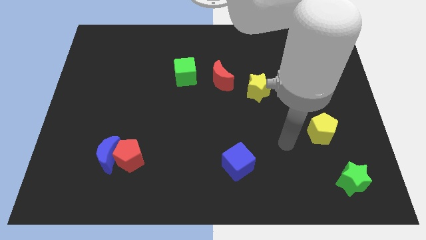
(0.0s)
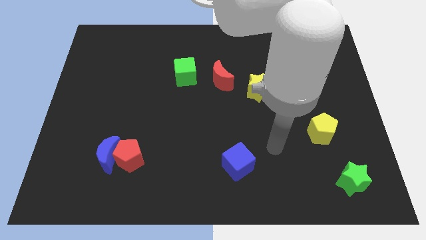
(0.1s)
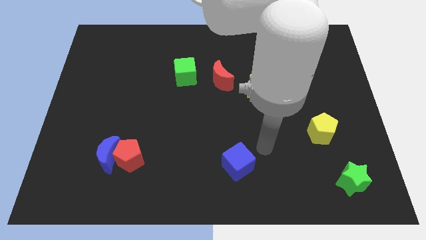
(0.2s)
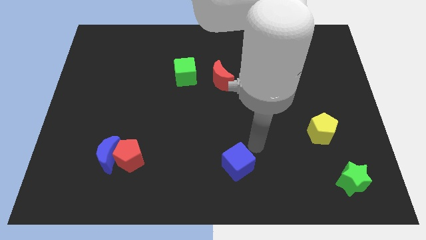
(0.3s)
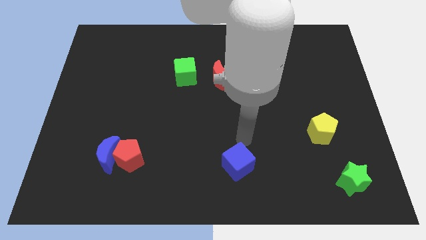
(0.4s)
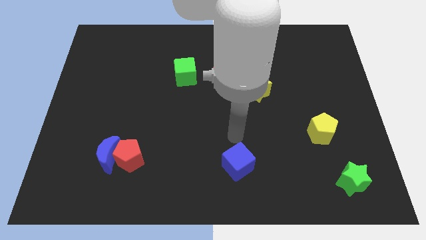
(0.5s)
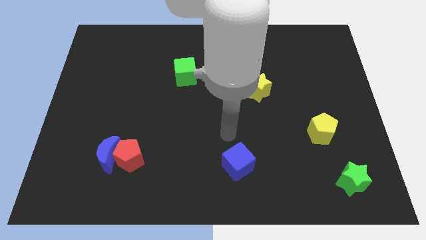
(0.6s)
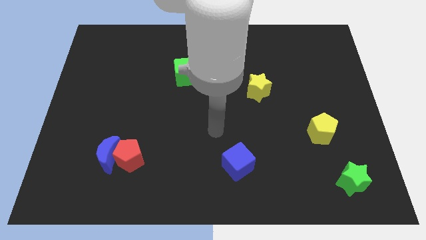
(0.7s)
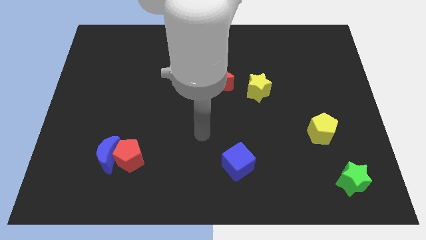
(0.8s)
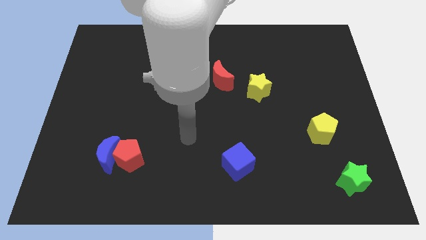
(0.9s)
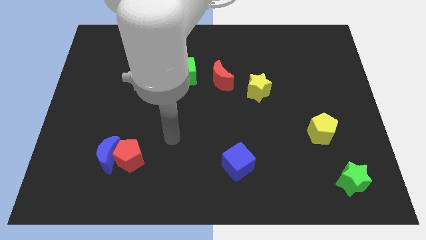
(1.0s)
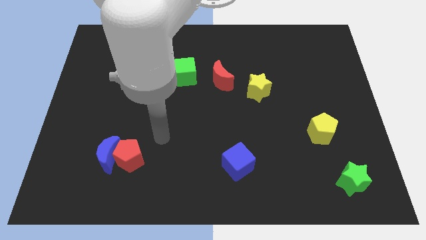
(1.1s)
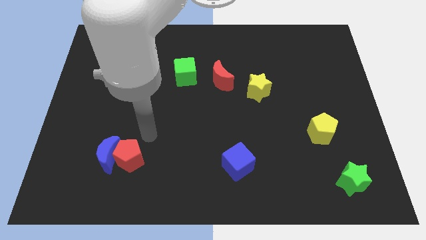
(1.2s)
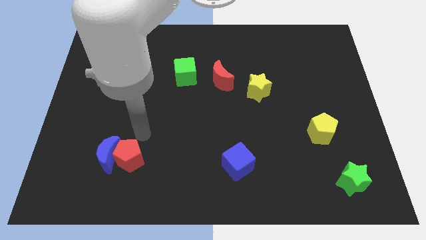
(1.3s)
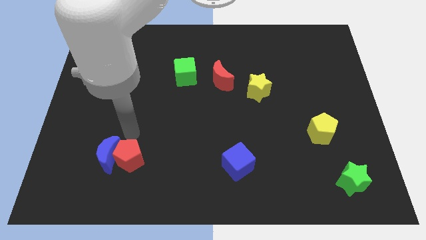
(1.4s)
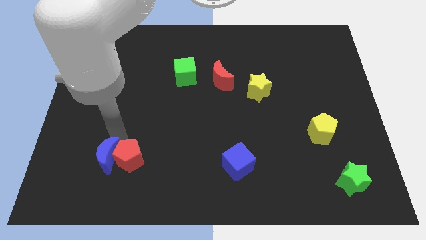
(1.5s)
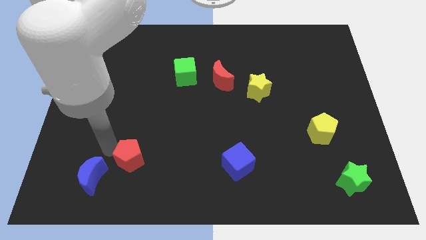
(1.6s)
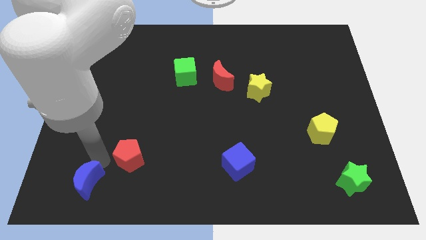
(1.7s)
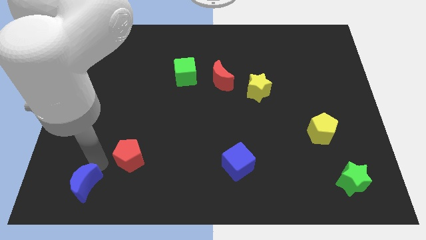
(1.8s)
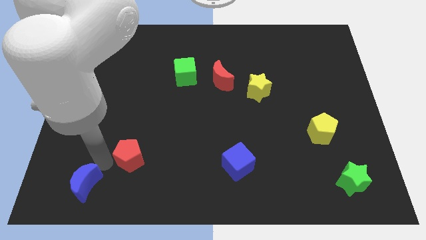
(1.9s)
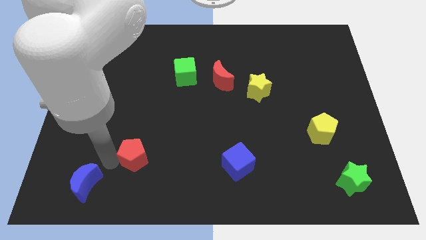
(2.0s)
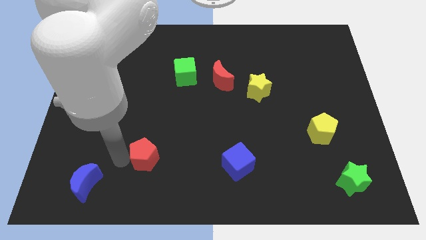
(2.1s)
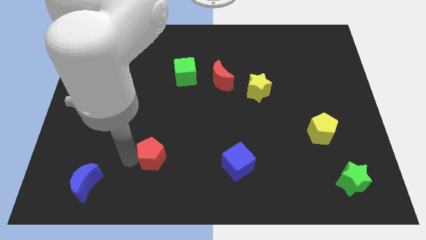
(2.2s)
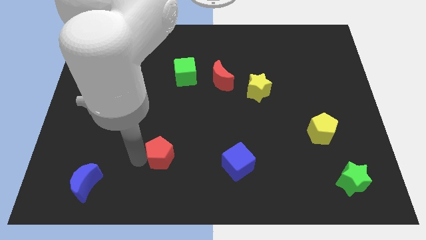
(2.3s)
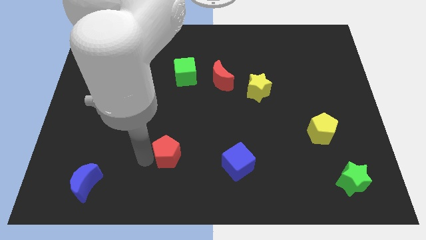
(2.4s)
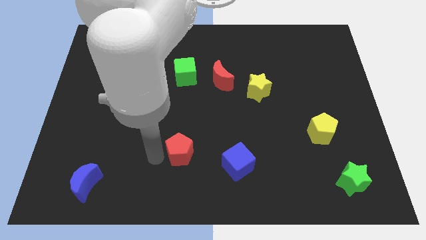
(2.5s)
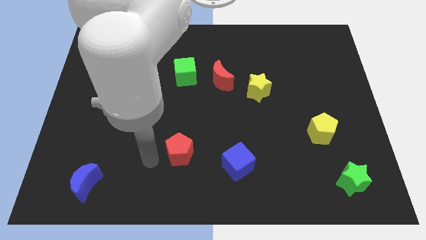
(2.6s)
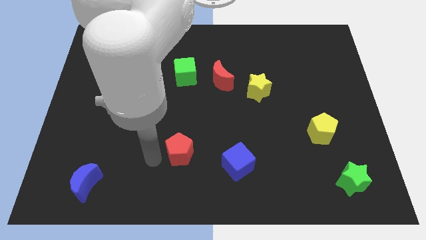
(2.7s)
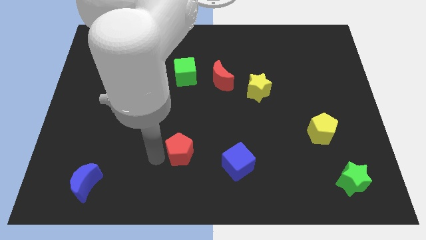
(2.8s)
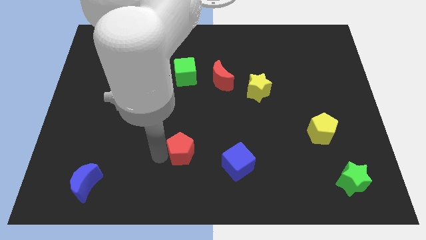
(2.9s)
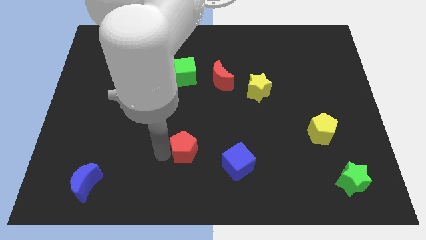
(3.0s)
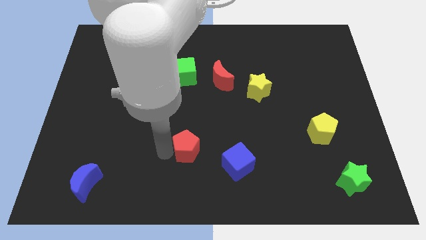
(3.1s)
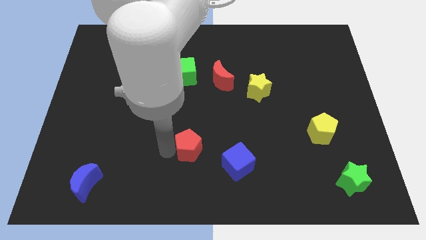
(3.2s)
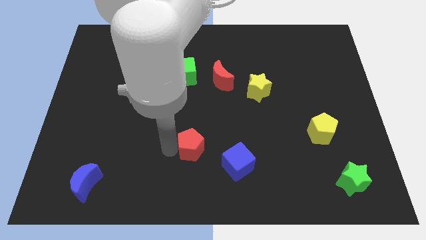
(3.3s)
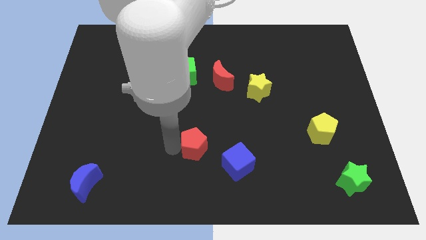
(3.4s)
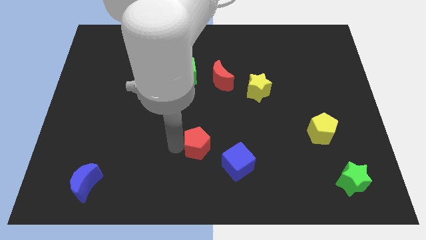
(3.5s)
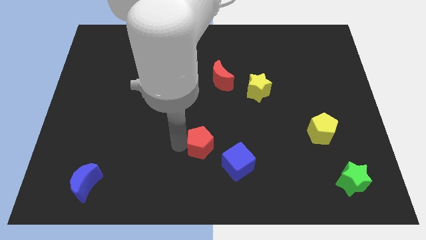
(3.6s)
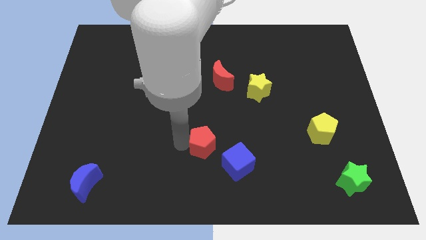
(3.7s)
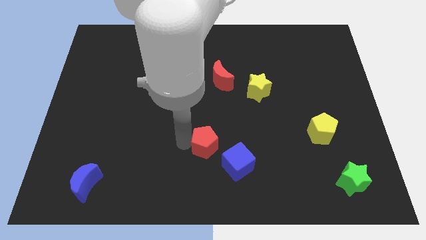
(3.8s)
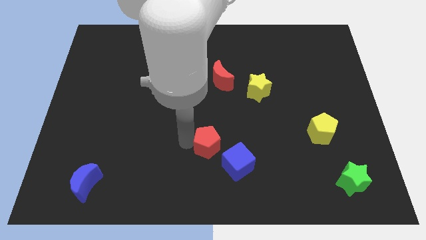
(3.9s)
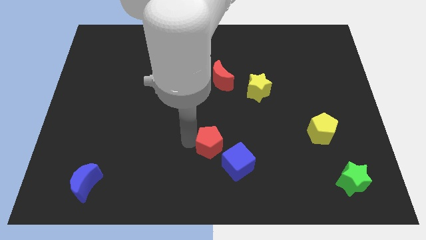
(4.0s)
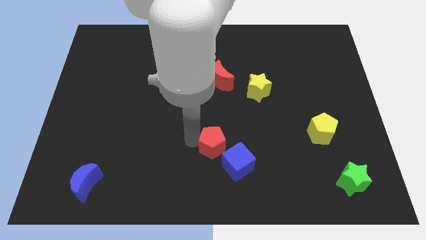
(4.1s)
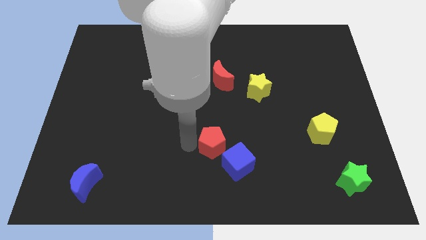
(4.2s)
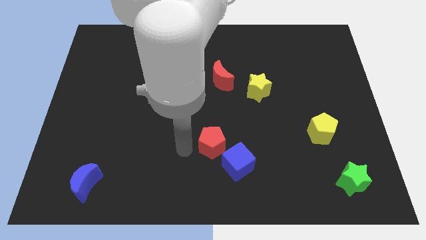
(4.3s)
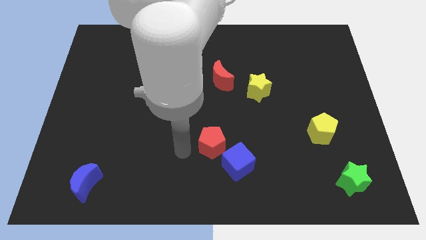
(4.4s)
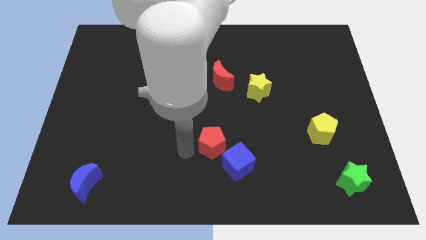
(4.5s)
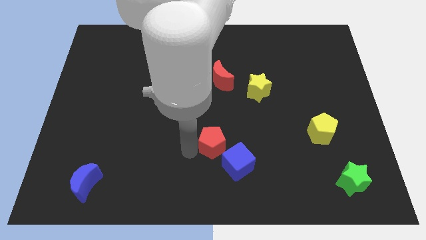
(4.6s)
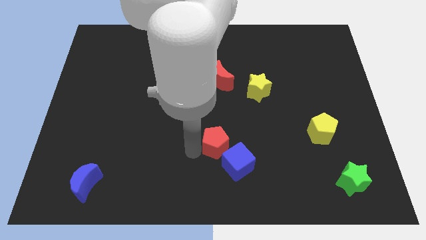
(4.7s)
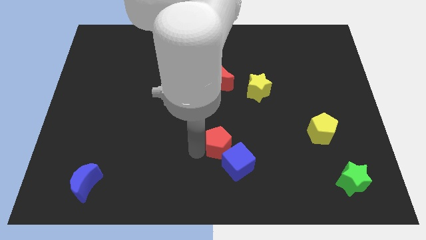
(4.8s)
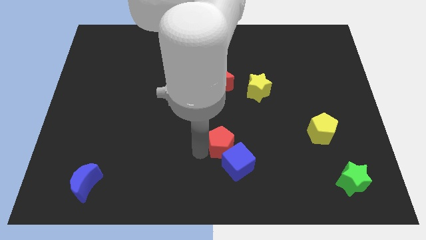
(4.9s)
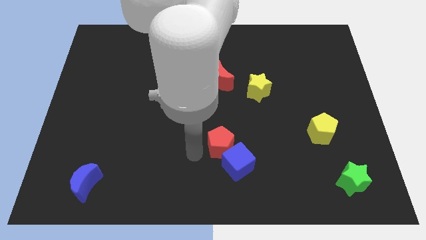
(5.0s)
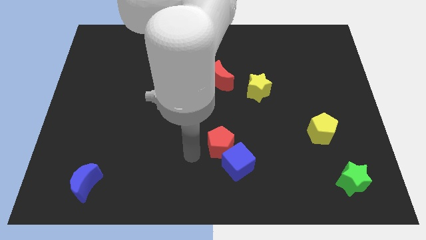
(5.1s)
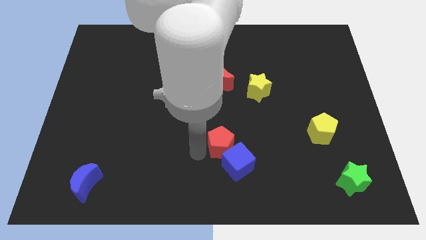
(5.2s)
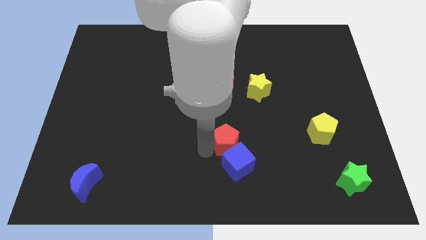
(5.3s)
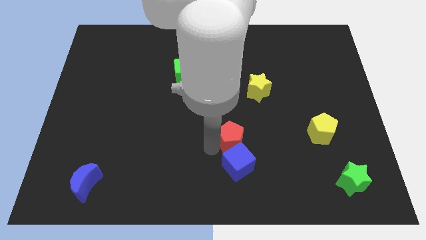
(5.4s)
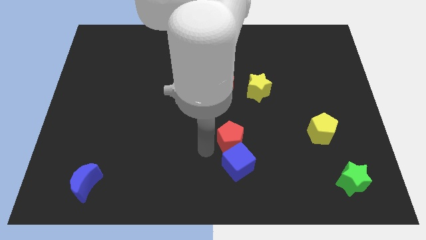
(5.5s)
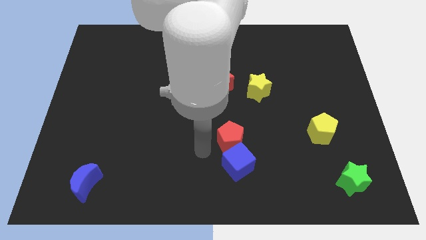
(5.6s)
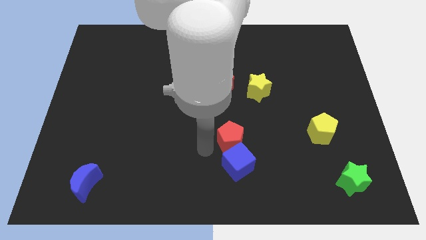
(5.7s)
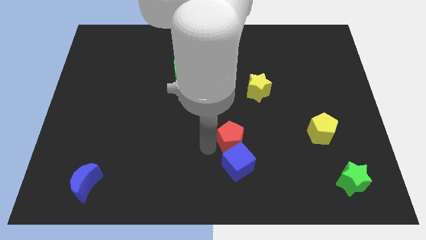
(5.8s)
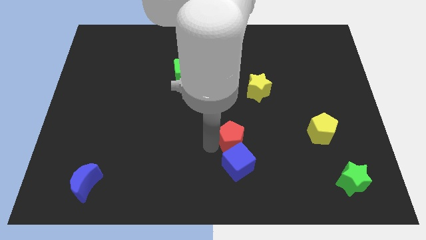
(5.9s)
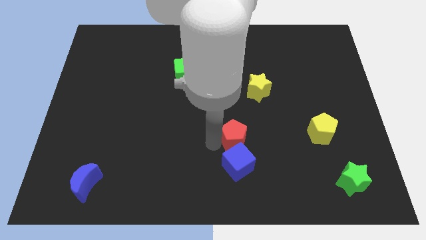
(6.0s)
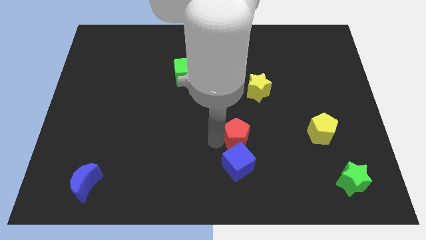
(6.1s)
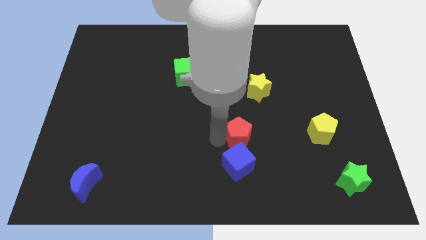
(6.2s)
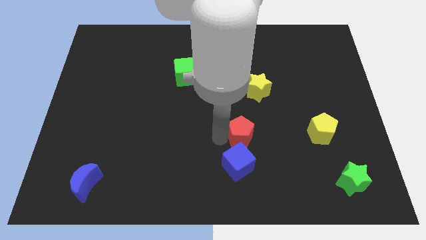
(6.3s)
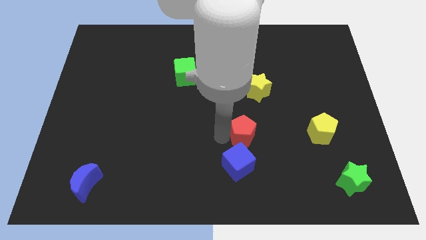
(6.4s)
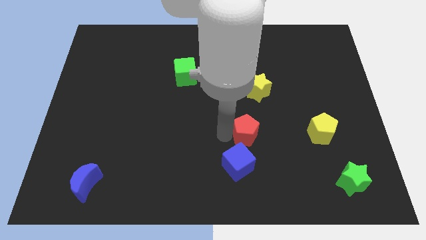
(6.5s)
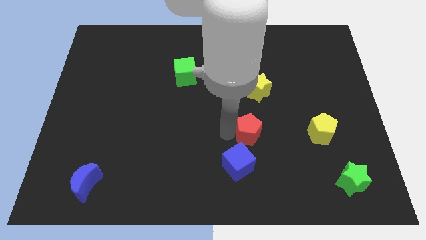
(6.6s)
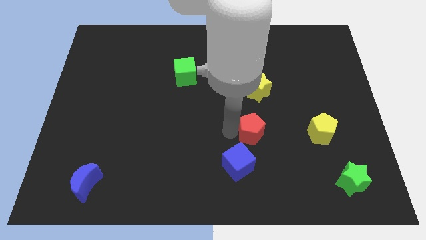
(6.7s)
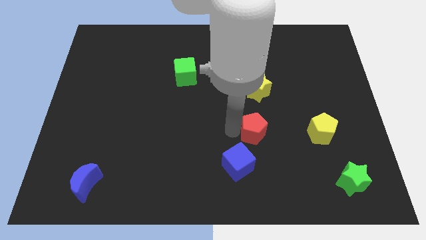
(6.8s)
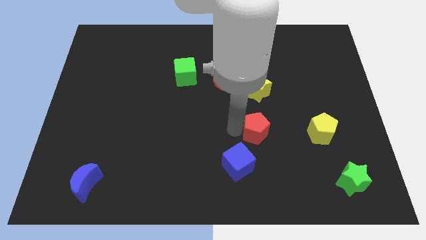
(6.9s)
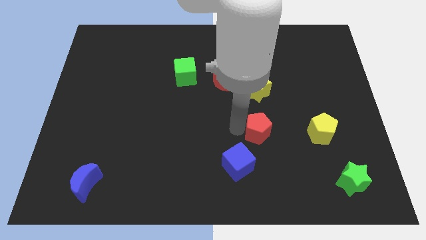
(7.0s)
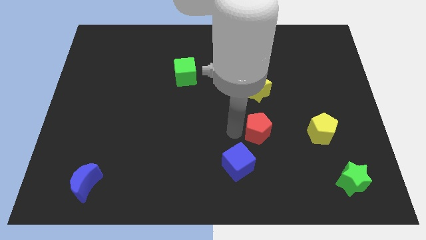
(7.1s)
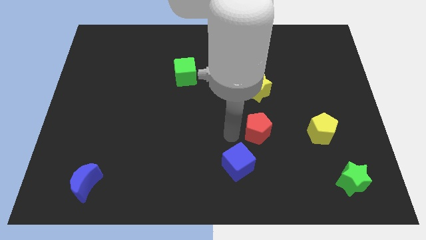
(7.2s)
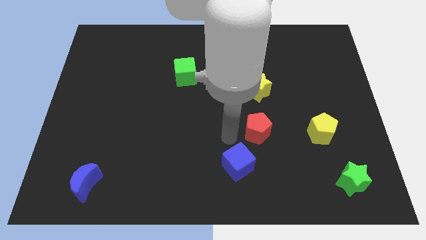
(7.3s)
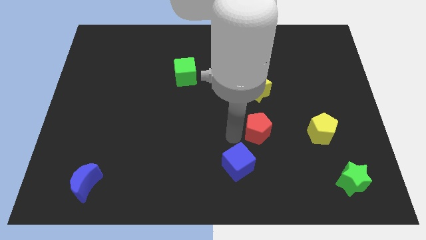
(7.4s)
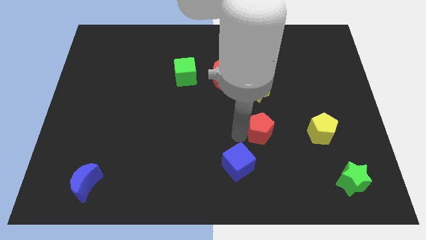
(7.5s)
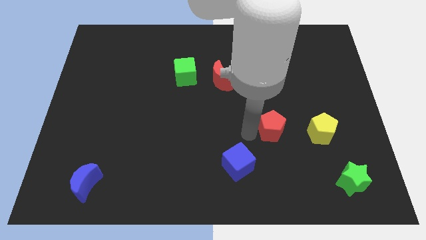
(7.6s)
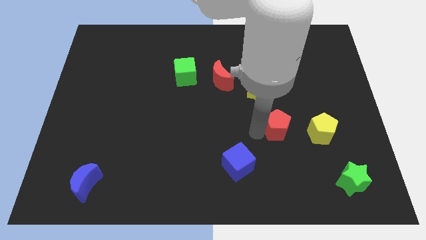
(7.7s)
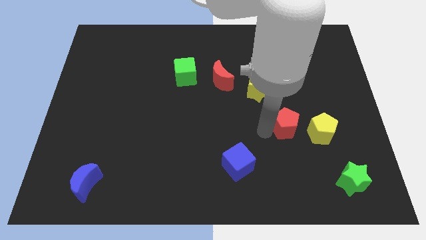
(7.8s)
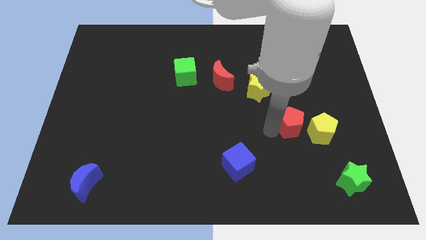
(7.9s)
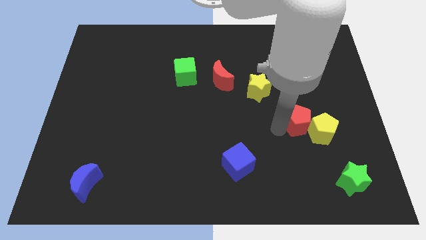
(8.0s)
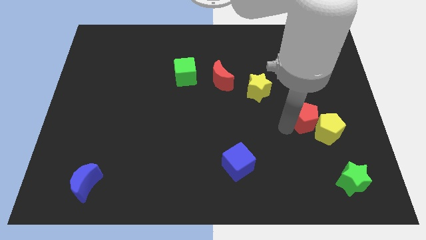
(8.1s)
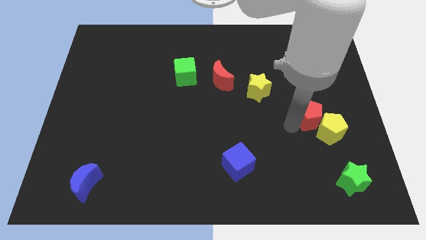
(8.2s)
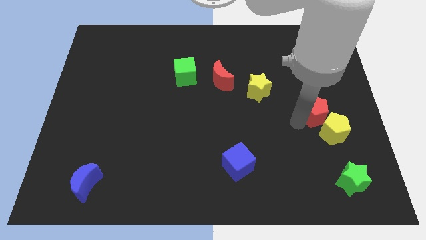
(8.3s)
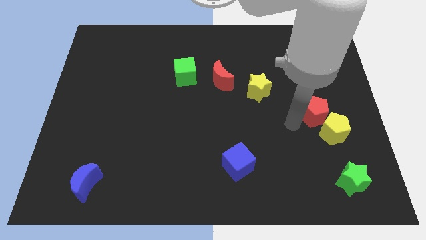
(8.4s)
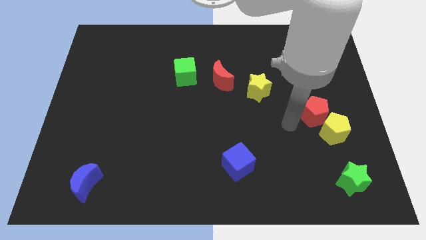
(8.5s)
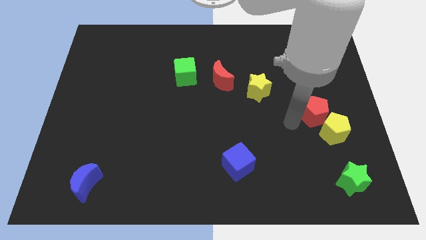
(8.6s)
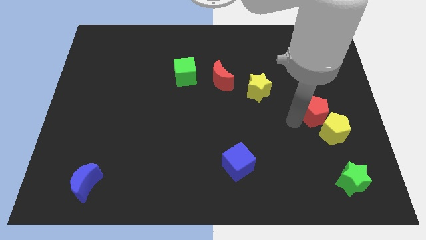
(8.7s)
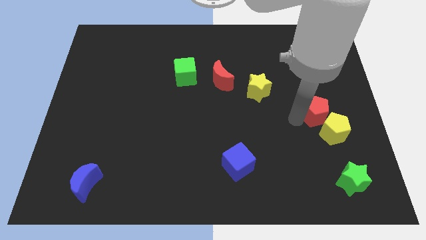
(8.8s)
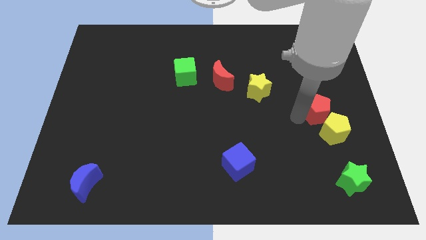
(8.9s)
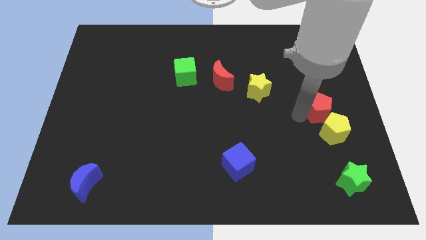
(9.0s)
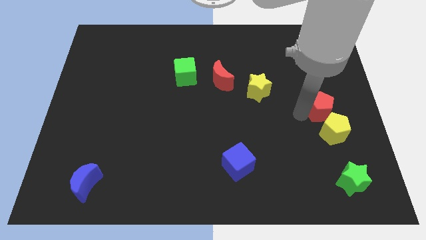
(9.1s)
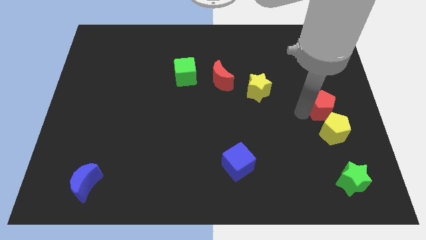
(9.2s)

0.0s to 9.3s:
put the red pentagon to the right side
